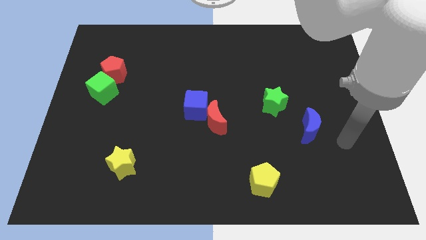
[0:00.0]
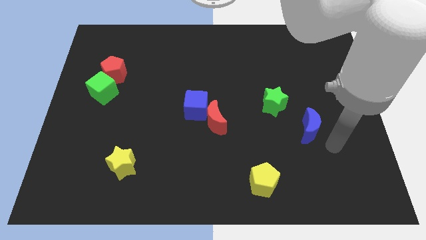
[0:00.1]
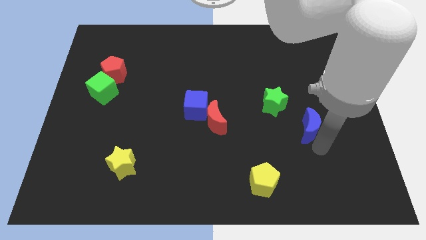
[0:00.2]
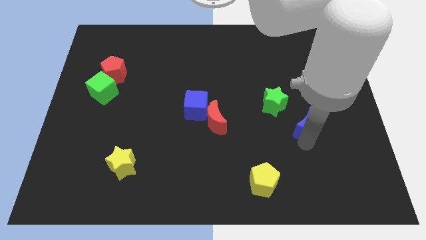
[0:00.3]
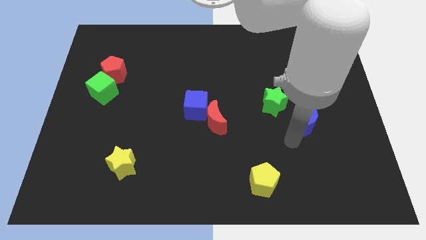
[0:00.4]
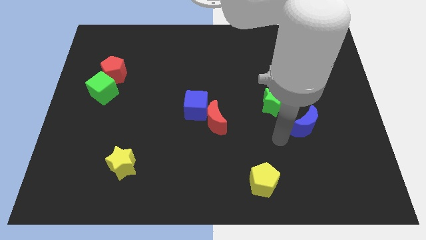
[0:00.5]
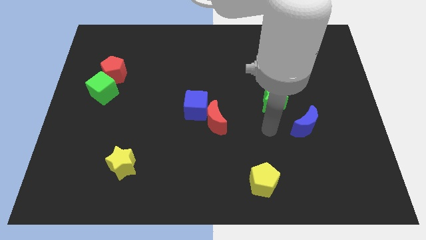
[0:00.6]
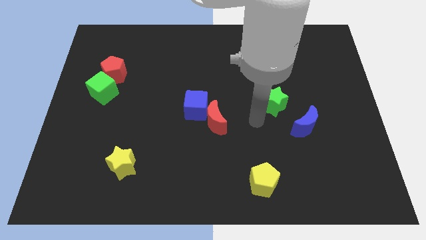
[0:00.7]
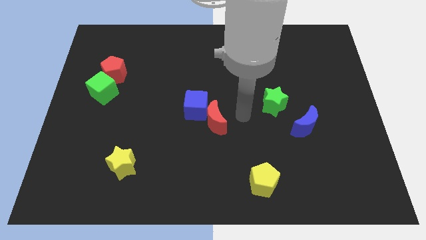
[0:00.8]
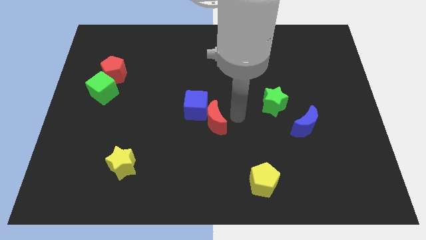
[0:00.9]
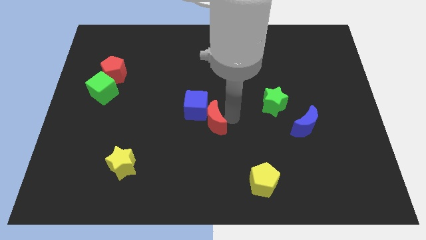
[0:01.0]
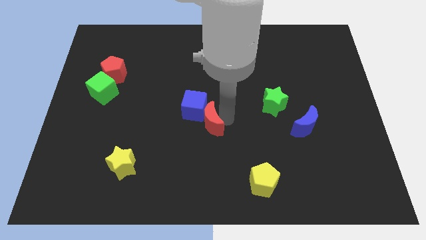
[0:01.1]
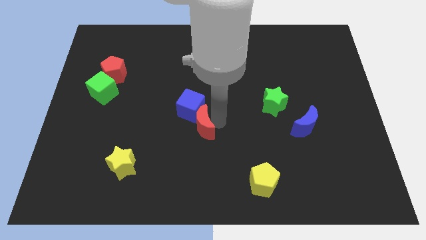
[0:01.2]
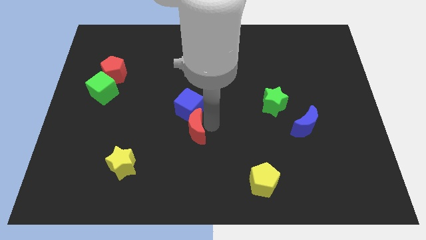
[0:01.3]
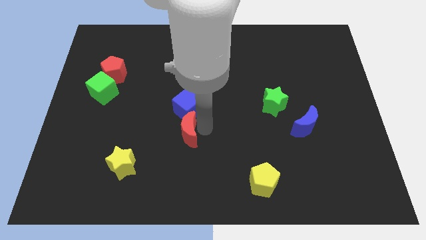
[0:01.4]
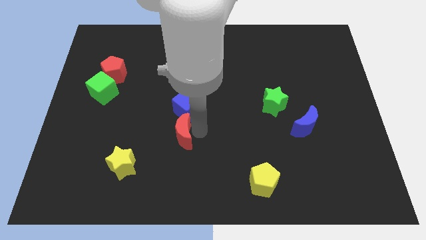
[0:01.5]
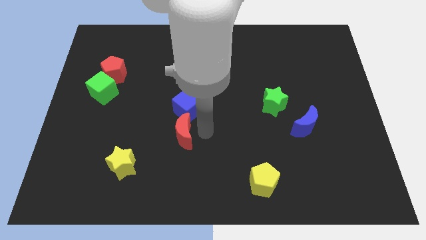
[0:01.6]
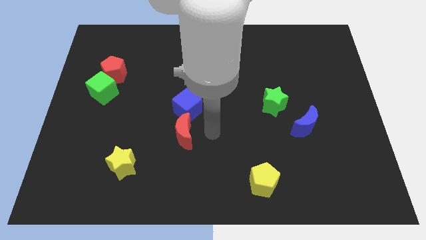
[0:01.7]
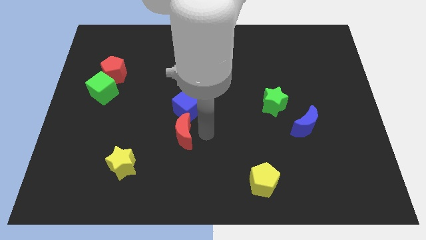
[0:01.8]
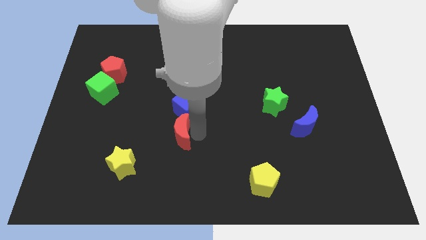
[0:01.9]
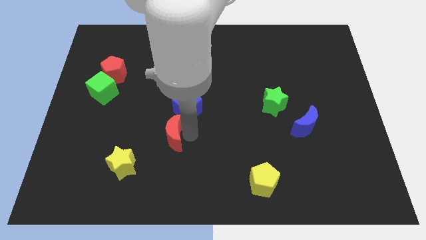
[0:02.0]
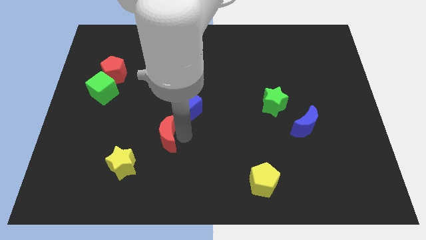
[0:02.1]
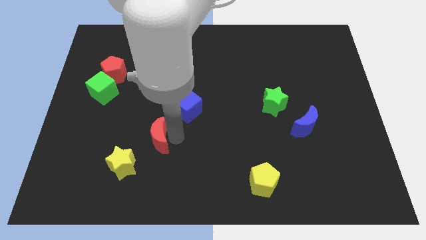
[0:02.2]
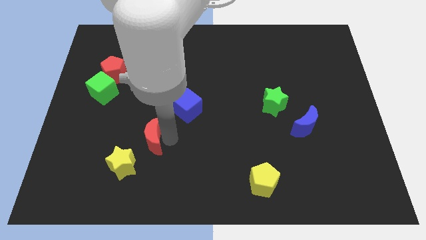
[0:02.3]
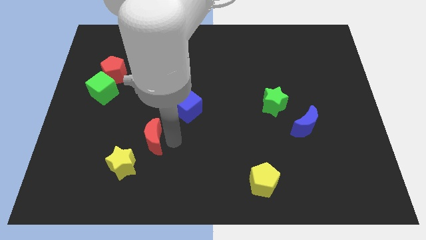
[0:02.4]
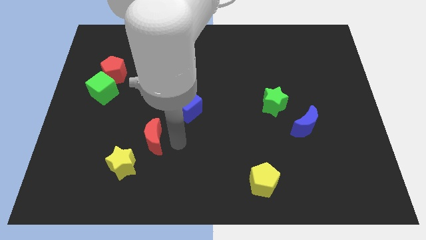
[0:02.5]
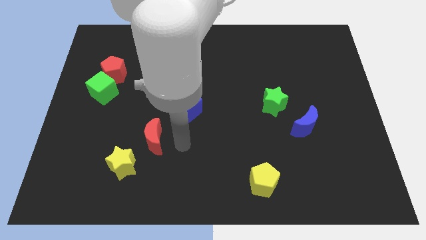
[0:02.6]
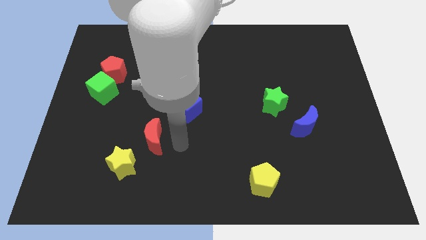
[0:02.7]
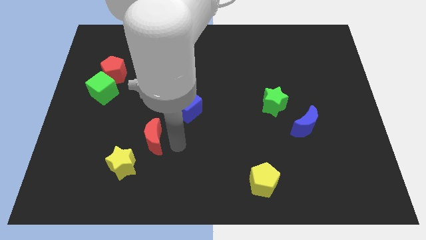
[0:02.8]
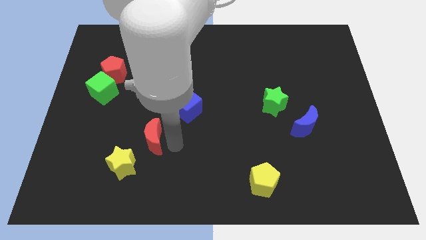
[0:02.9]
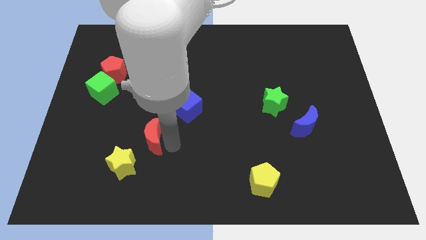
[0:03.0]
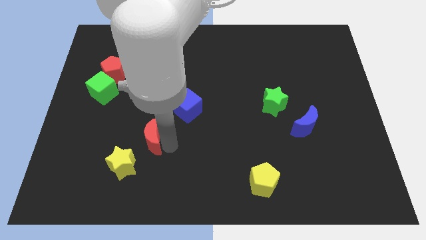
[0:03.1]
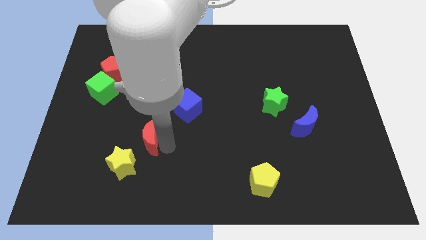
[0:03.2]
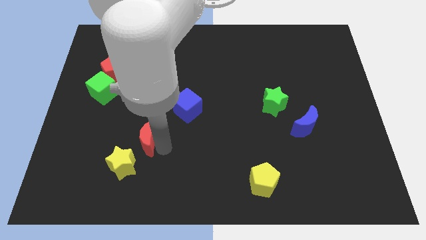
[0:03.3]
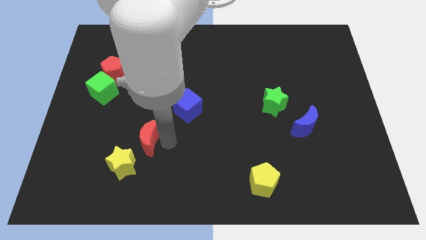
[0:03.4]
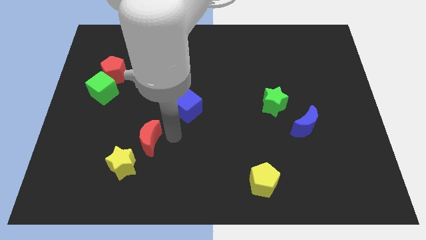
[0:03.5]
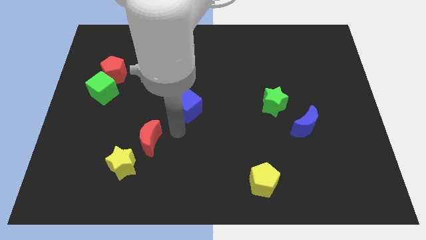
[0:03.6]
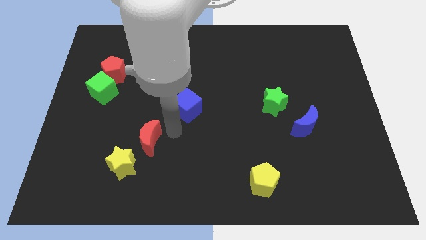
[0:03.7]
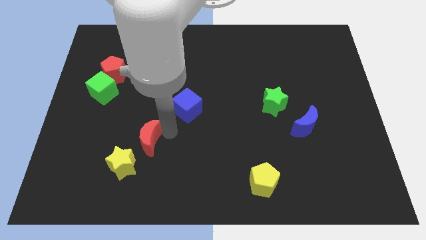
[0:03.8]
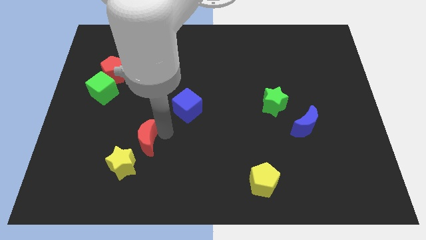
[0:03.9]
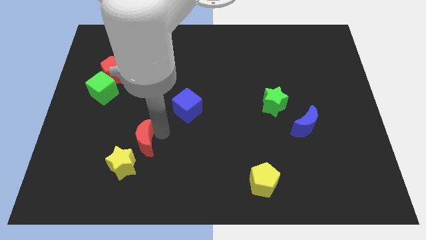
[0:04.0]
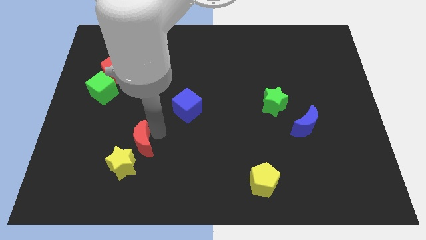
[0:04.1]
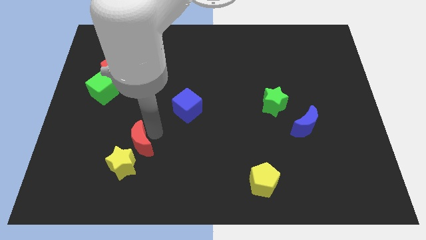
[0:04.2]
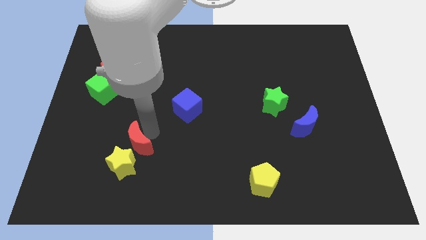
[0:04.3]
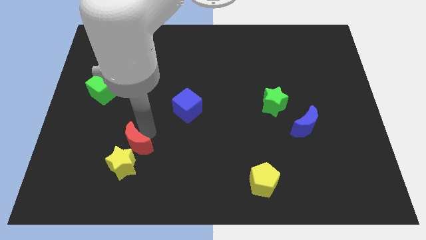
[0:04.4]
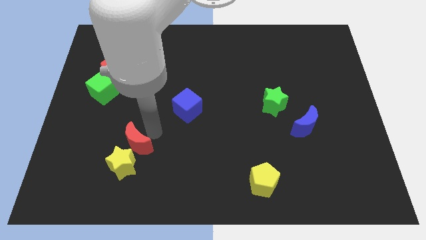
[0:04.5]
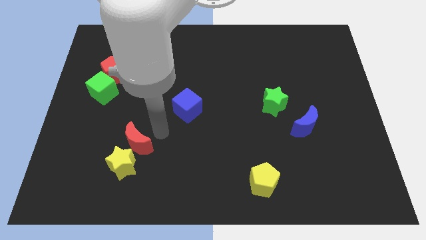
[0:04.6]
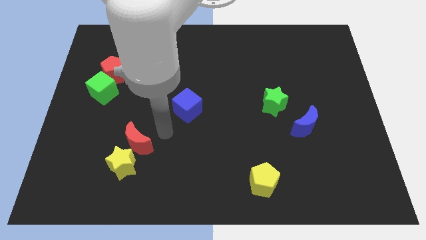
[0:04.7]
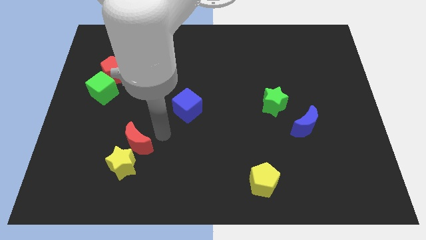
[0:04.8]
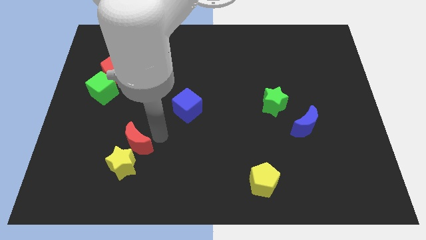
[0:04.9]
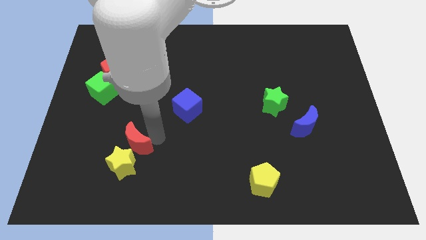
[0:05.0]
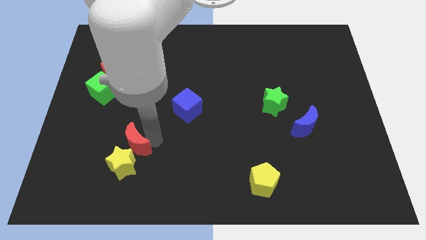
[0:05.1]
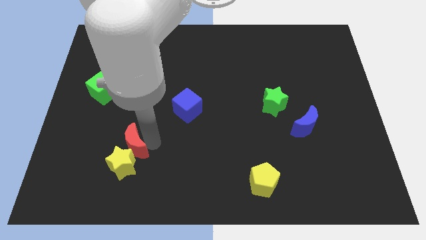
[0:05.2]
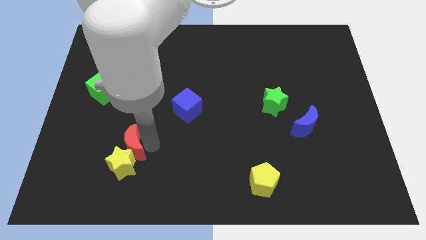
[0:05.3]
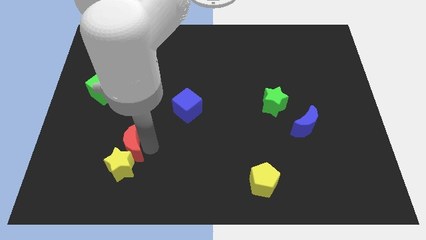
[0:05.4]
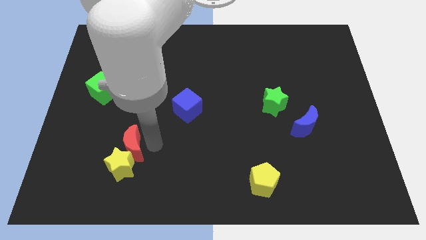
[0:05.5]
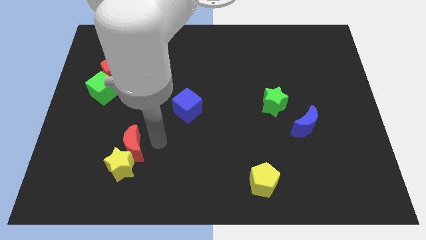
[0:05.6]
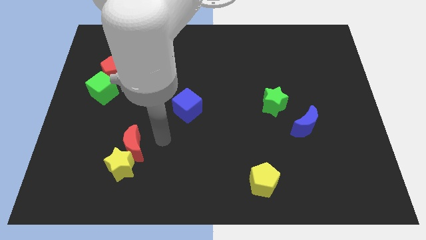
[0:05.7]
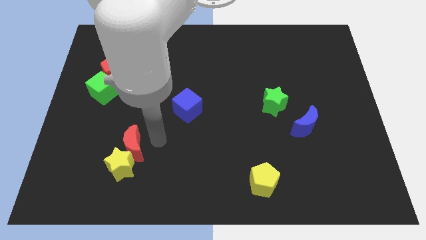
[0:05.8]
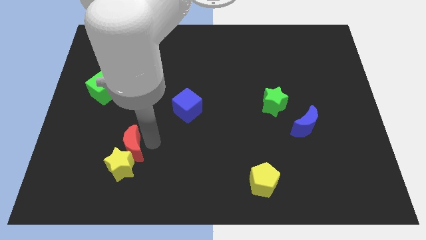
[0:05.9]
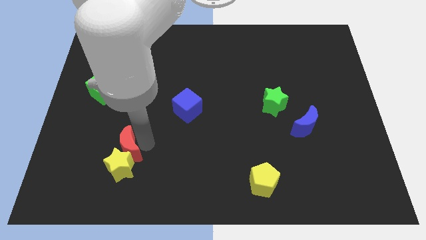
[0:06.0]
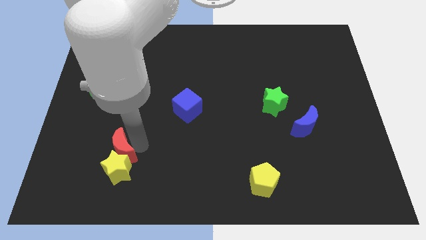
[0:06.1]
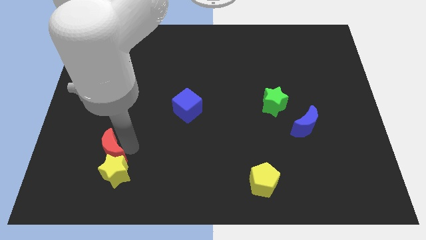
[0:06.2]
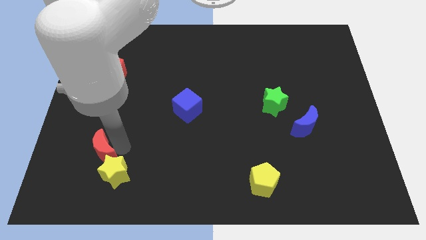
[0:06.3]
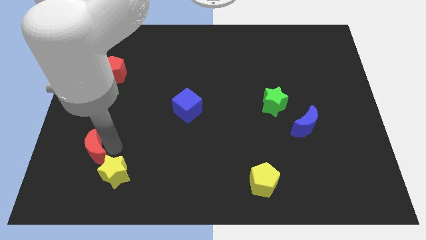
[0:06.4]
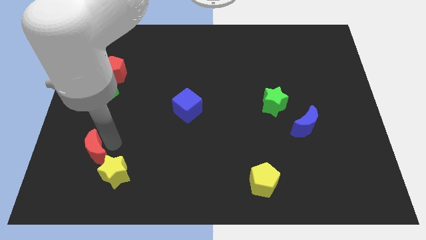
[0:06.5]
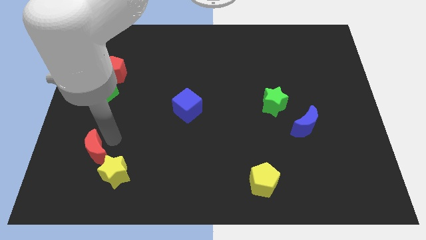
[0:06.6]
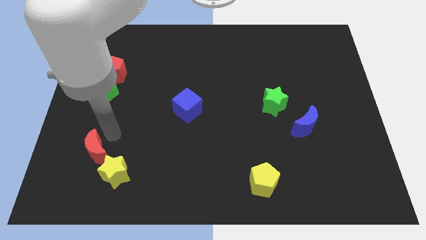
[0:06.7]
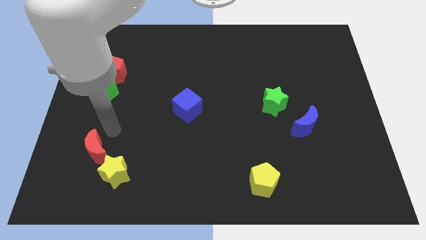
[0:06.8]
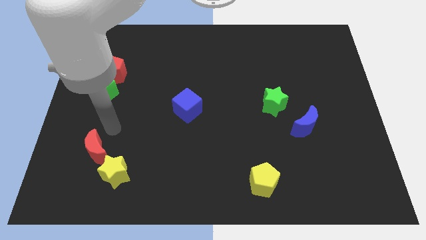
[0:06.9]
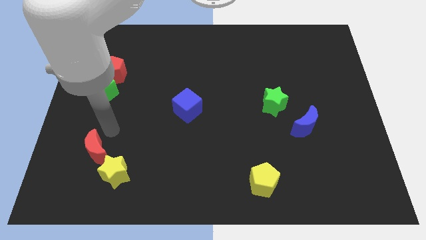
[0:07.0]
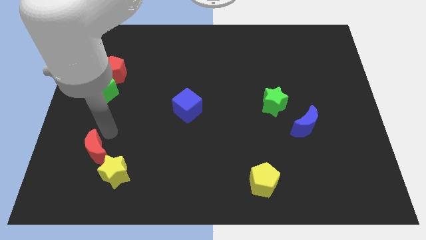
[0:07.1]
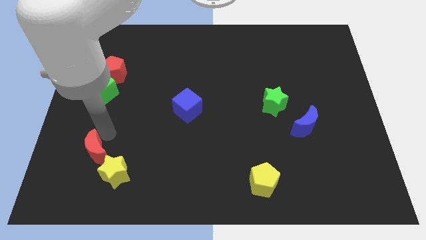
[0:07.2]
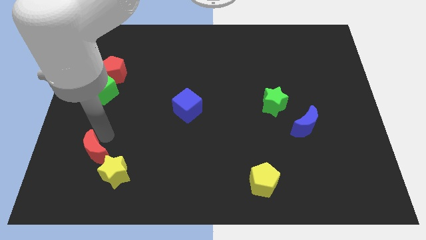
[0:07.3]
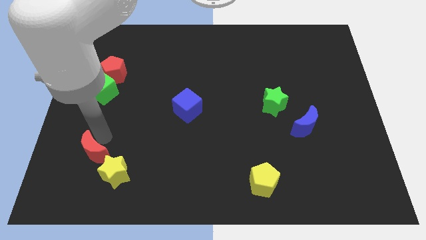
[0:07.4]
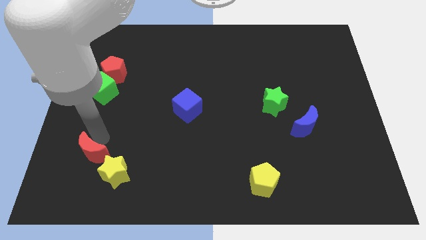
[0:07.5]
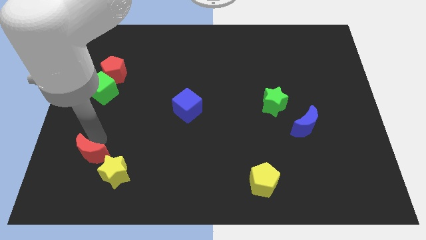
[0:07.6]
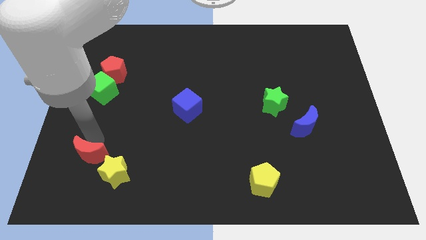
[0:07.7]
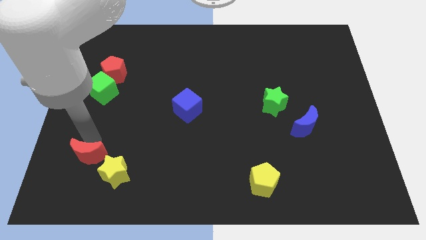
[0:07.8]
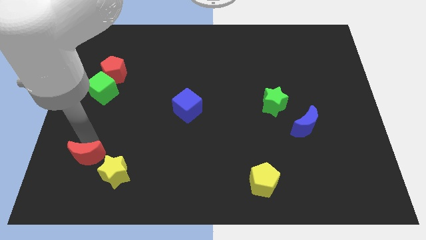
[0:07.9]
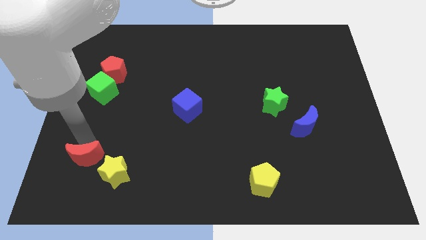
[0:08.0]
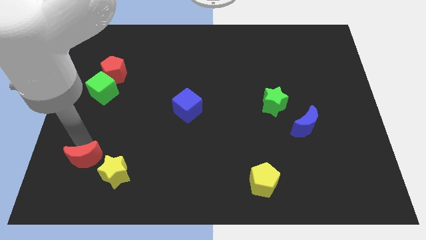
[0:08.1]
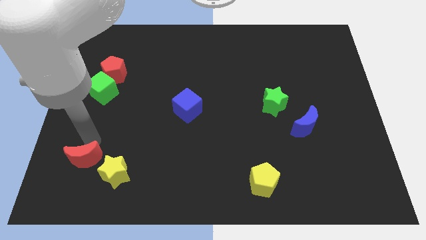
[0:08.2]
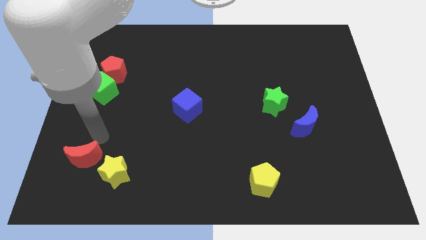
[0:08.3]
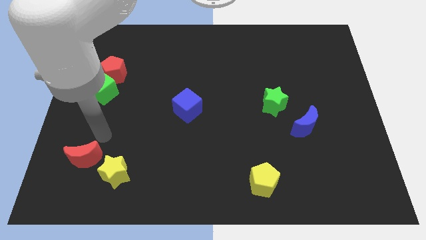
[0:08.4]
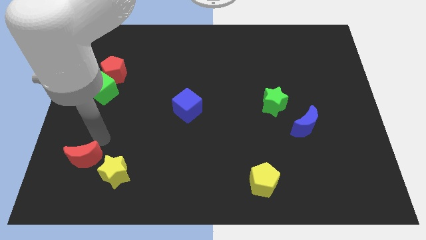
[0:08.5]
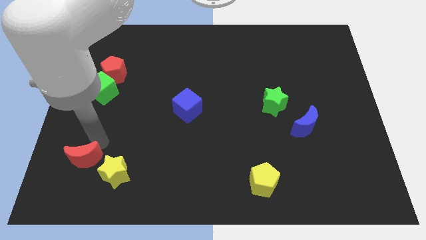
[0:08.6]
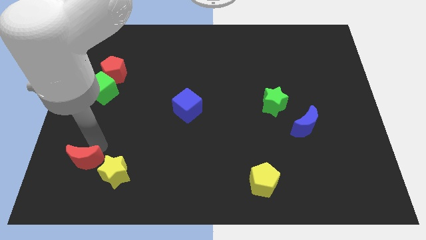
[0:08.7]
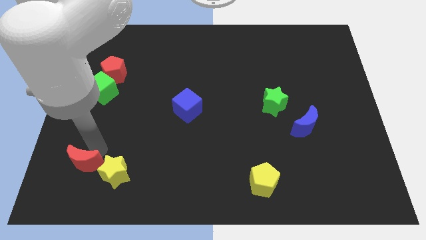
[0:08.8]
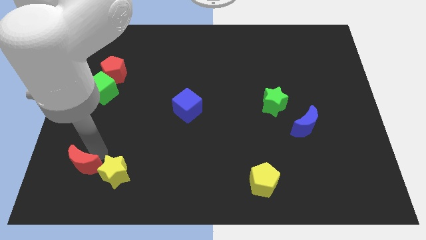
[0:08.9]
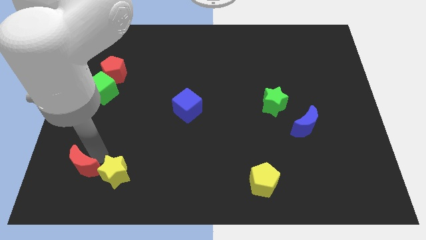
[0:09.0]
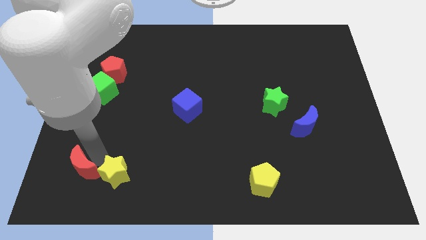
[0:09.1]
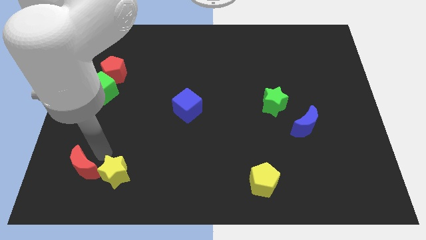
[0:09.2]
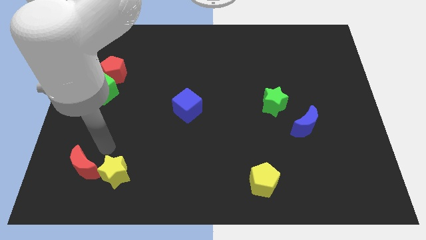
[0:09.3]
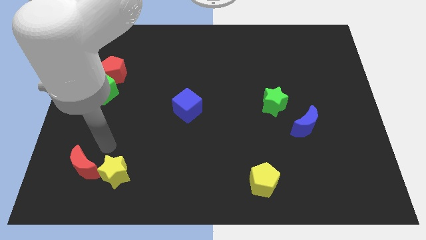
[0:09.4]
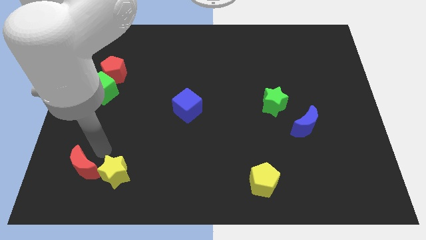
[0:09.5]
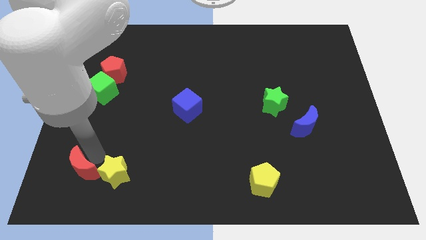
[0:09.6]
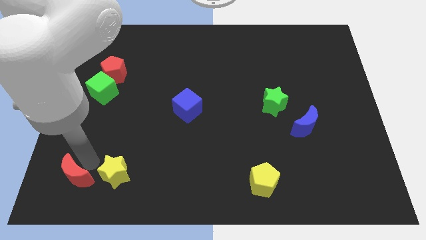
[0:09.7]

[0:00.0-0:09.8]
slide the red moon to the bottom left of the board
